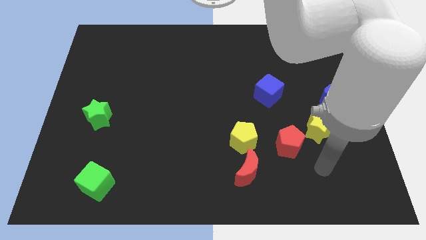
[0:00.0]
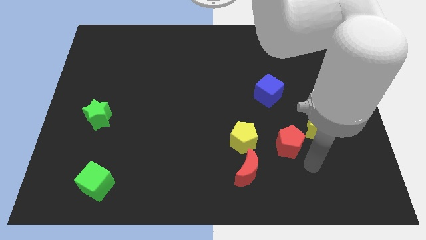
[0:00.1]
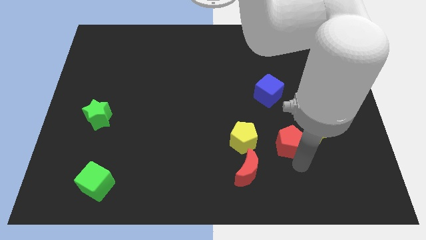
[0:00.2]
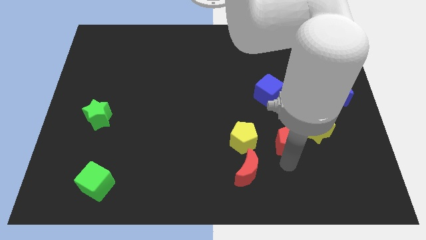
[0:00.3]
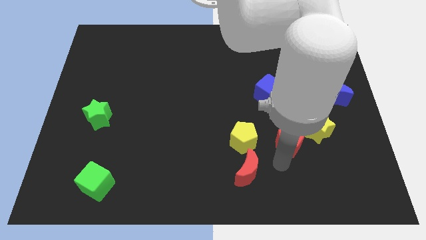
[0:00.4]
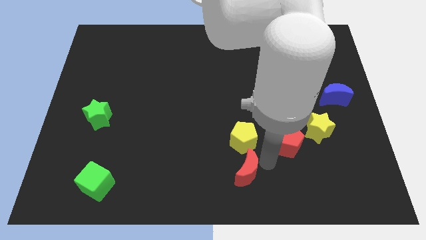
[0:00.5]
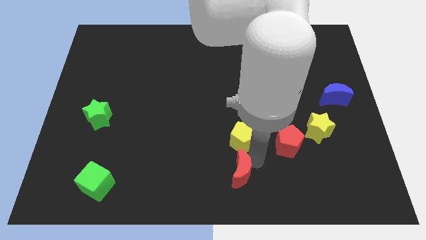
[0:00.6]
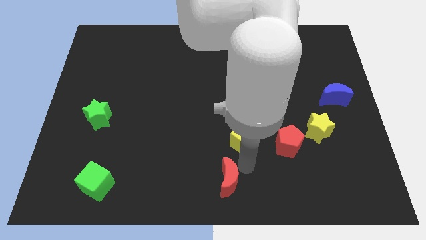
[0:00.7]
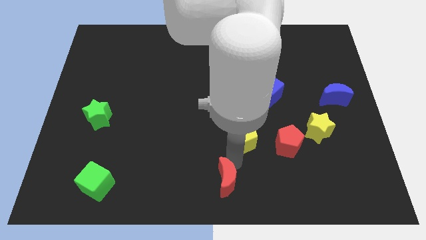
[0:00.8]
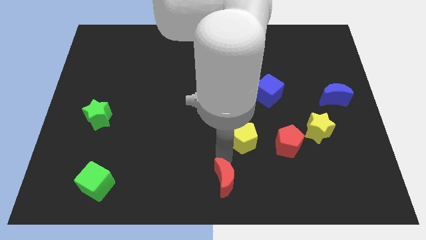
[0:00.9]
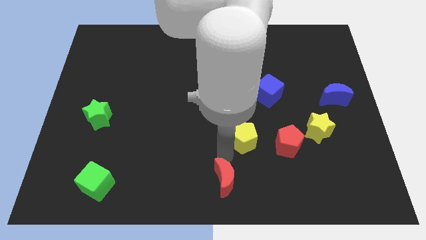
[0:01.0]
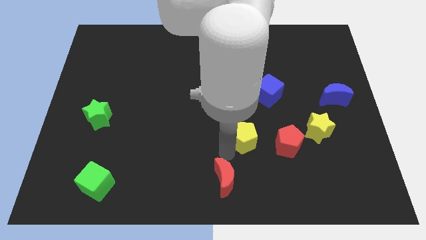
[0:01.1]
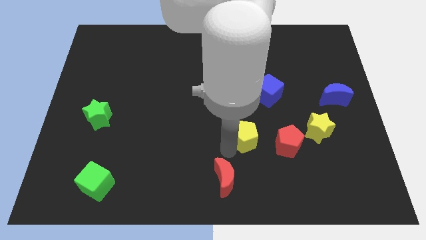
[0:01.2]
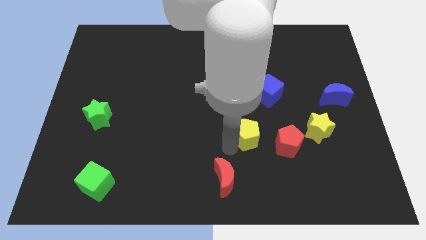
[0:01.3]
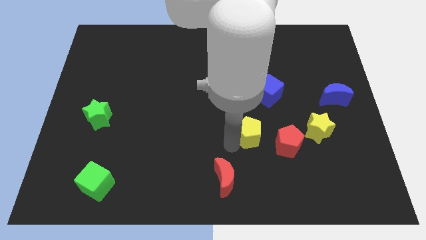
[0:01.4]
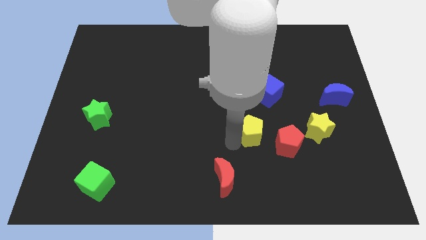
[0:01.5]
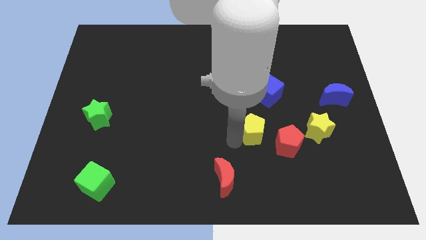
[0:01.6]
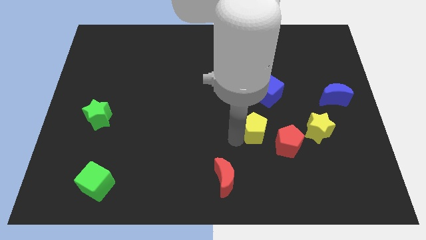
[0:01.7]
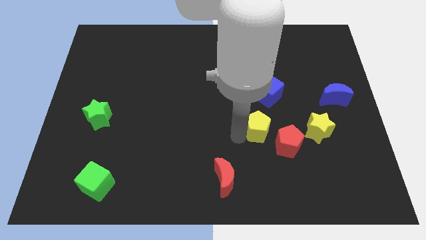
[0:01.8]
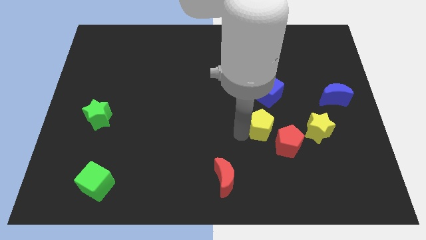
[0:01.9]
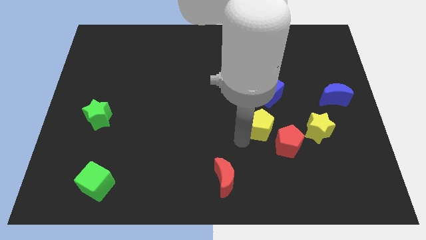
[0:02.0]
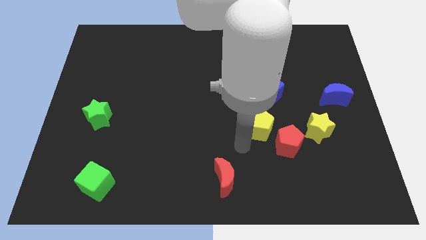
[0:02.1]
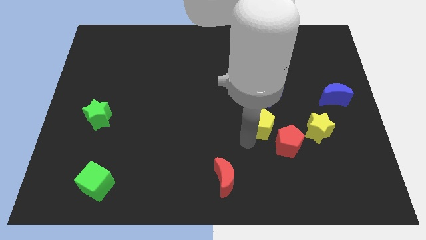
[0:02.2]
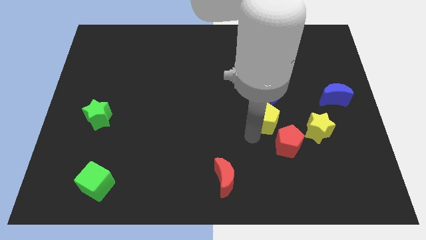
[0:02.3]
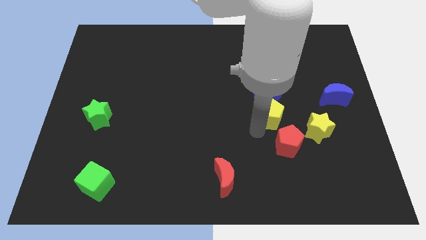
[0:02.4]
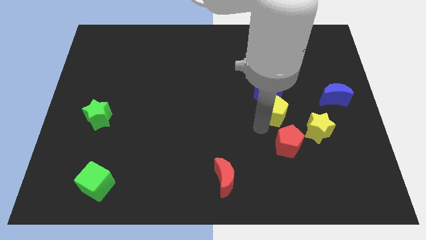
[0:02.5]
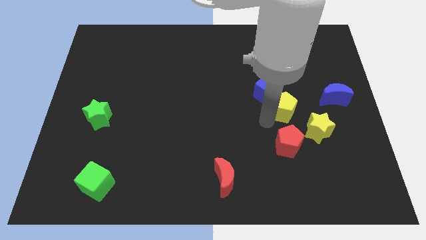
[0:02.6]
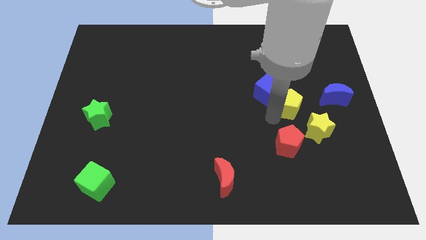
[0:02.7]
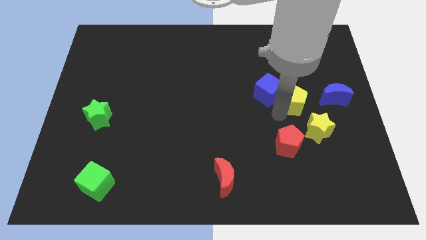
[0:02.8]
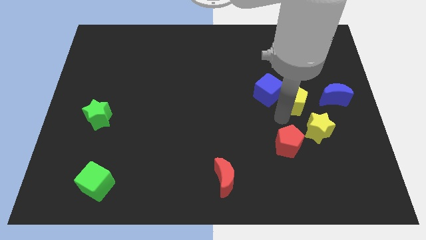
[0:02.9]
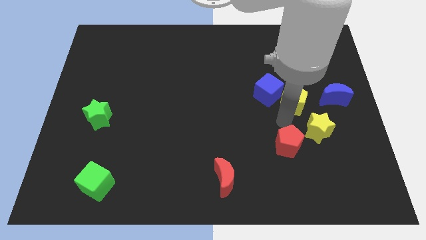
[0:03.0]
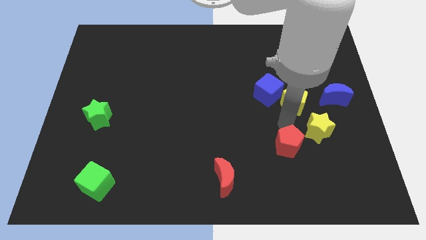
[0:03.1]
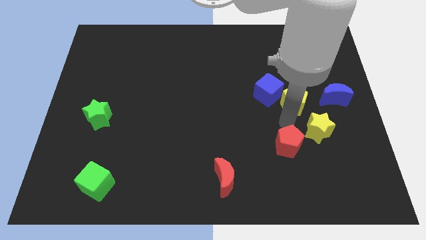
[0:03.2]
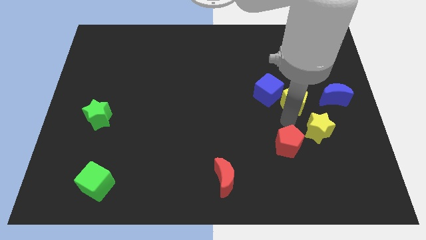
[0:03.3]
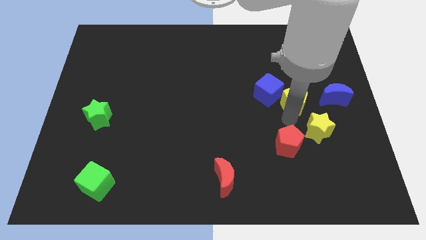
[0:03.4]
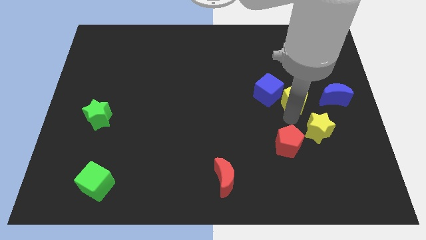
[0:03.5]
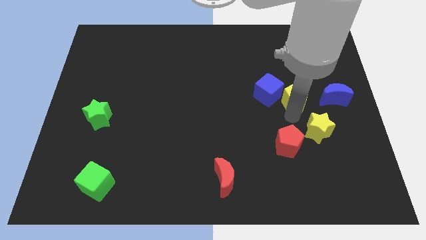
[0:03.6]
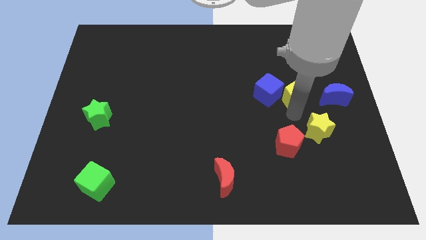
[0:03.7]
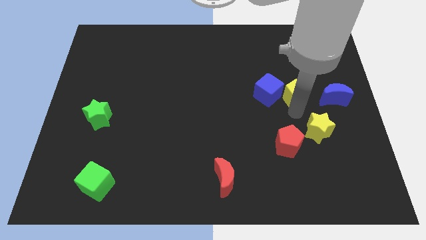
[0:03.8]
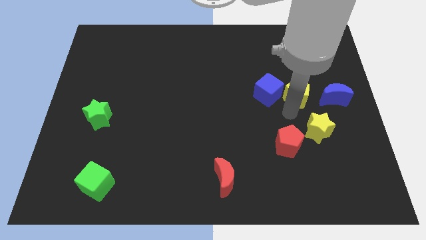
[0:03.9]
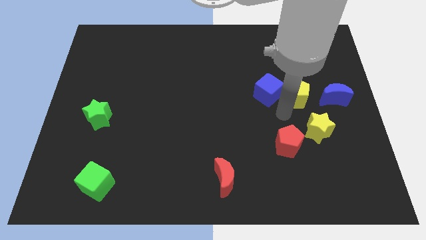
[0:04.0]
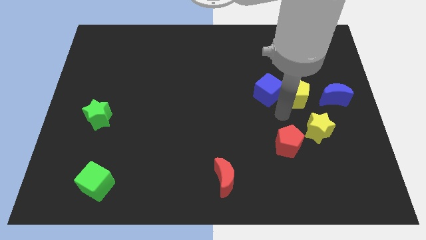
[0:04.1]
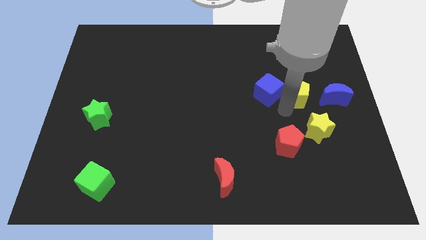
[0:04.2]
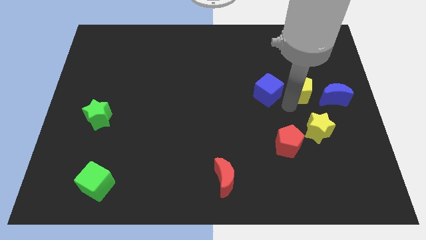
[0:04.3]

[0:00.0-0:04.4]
move the yellow pentagon to the top left of the blue moon

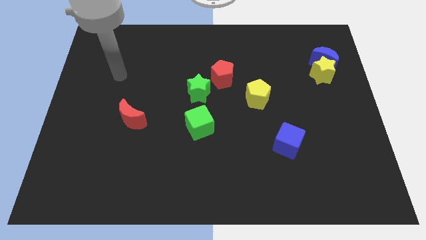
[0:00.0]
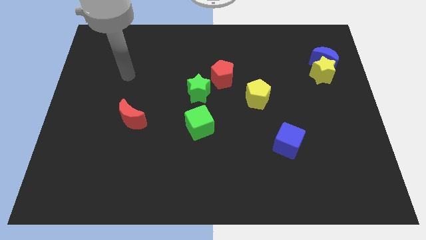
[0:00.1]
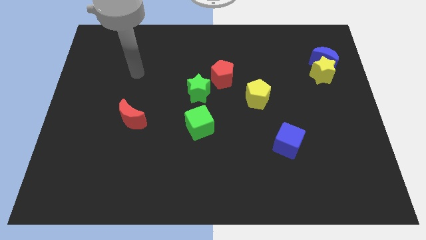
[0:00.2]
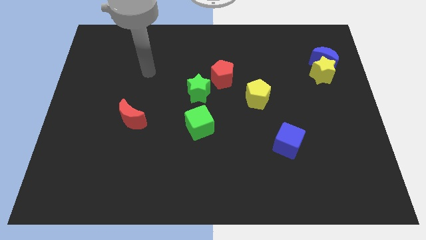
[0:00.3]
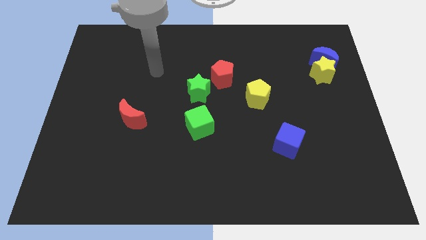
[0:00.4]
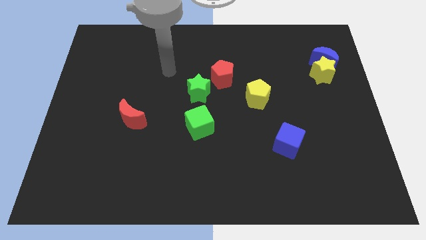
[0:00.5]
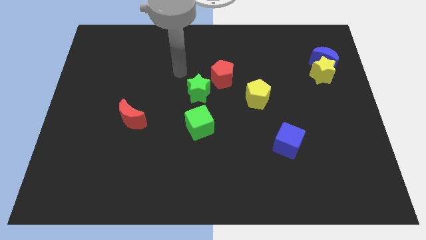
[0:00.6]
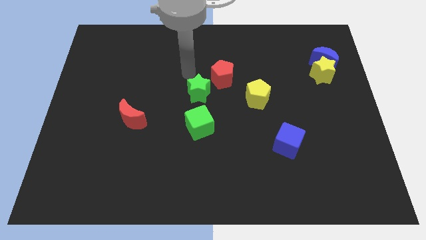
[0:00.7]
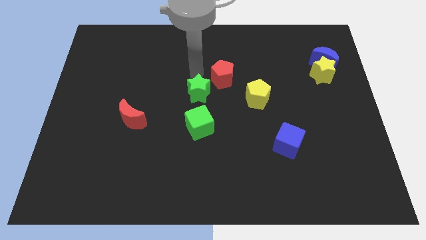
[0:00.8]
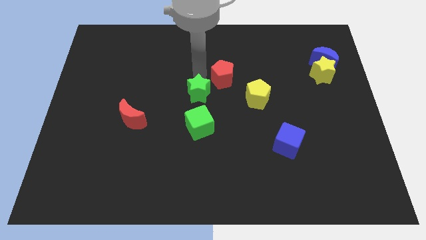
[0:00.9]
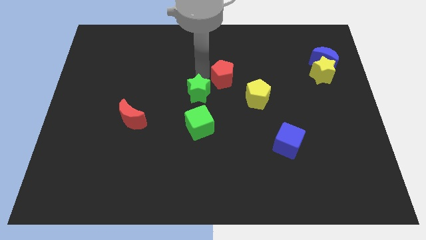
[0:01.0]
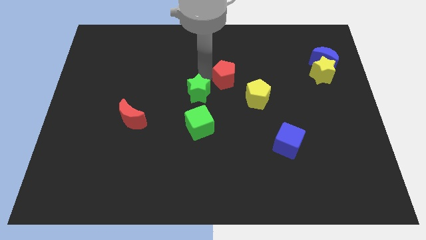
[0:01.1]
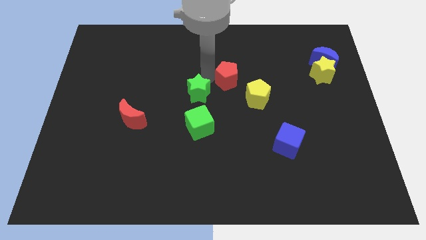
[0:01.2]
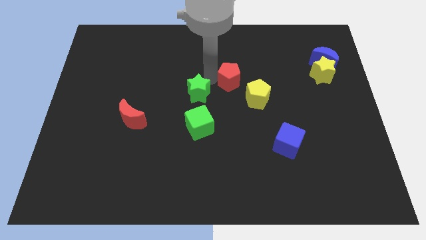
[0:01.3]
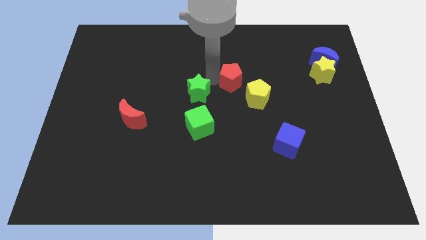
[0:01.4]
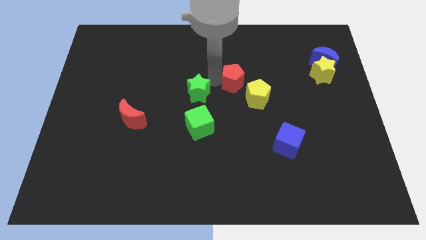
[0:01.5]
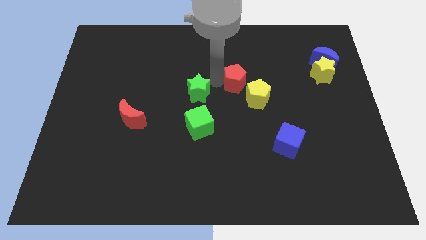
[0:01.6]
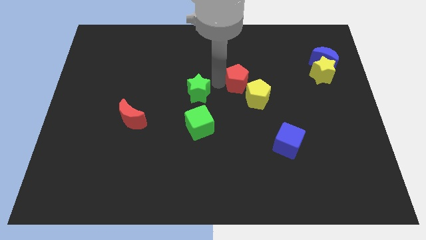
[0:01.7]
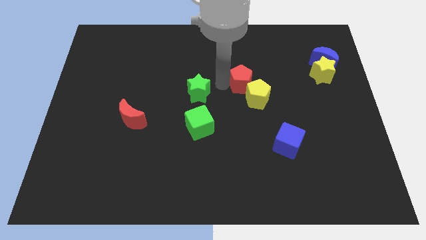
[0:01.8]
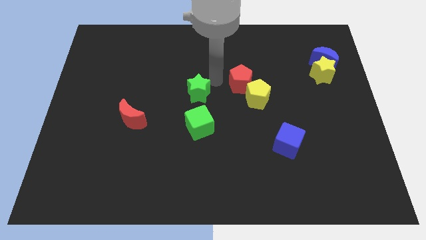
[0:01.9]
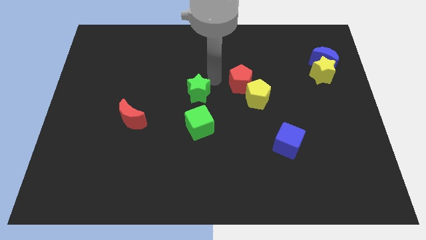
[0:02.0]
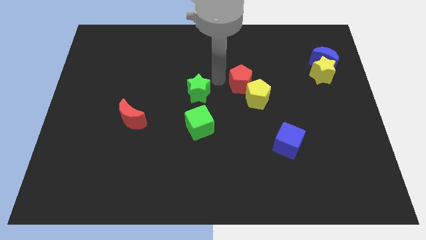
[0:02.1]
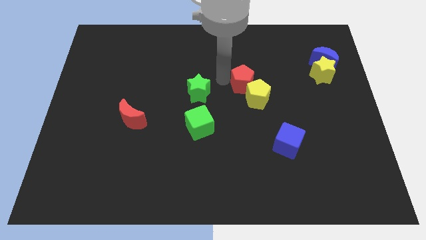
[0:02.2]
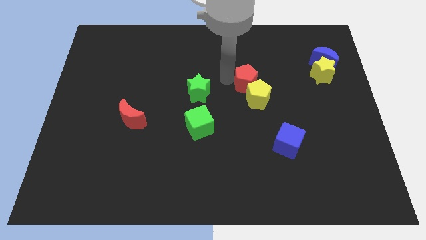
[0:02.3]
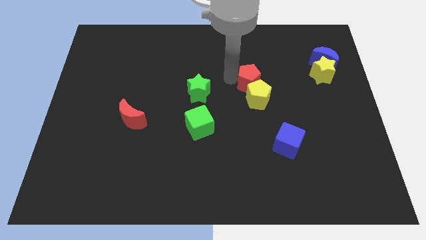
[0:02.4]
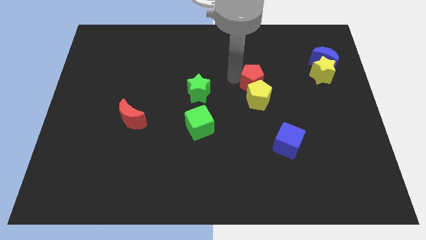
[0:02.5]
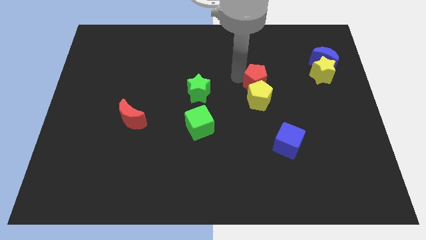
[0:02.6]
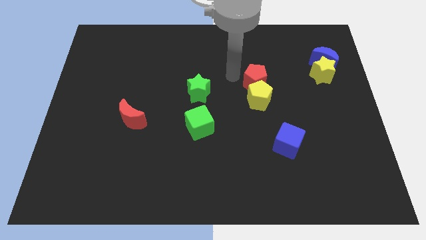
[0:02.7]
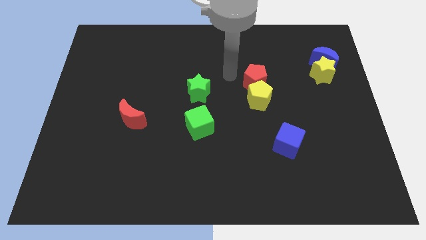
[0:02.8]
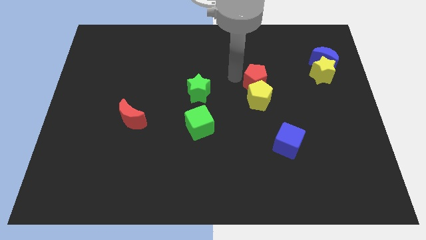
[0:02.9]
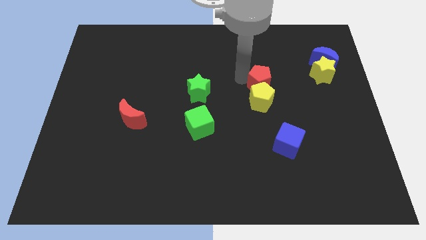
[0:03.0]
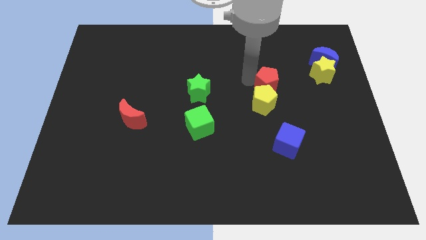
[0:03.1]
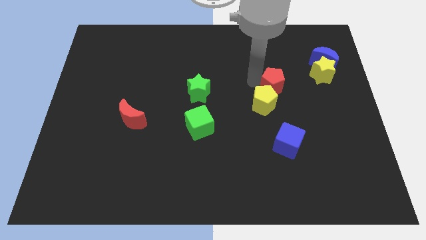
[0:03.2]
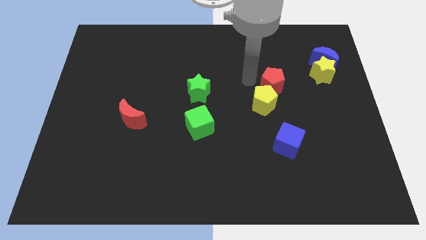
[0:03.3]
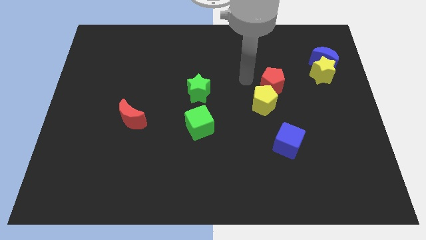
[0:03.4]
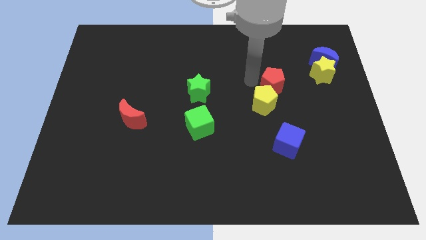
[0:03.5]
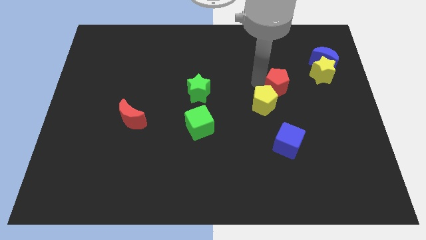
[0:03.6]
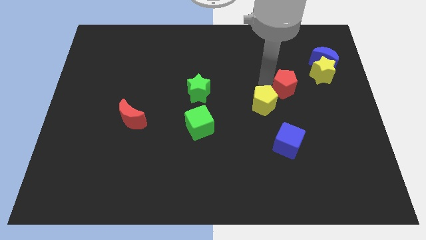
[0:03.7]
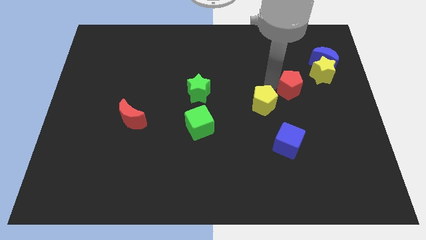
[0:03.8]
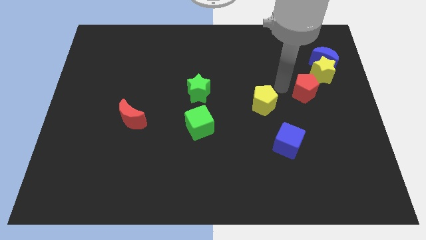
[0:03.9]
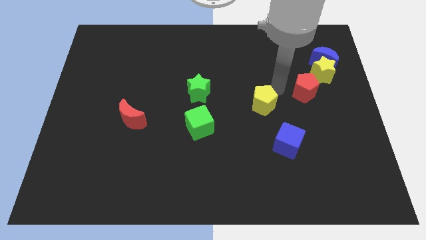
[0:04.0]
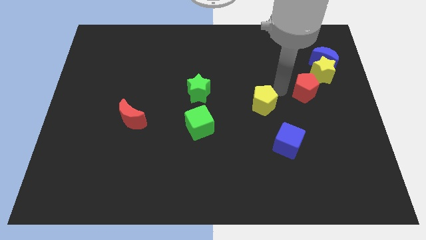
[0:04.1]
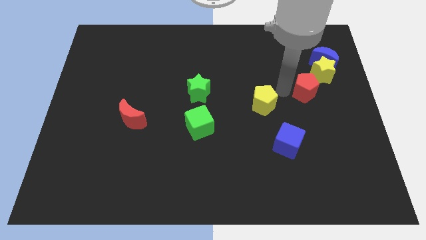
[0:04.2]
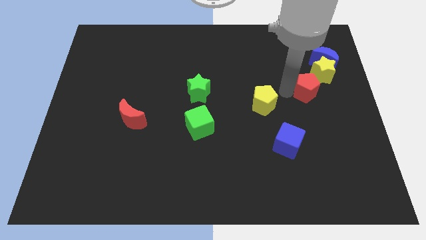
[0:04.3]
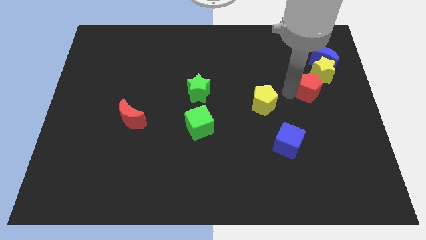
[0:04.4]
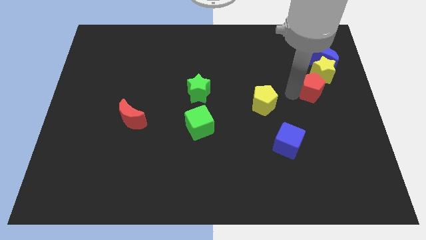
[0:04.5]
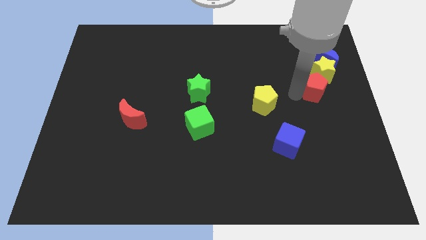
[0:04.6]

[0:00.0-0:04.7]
slide the red pentagon to the bottom of the blue moon
